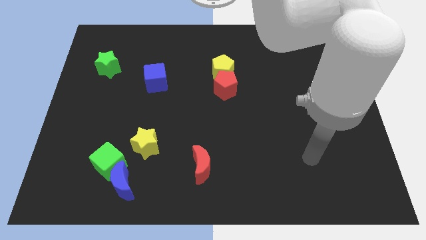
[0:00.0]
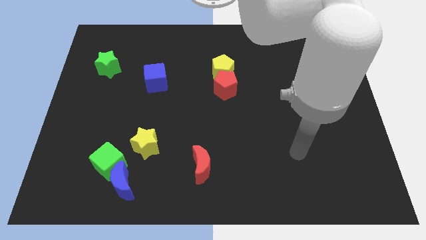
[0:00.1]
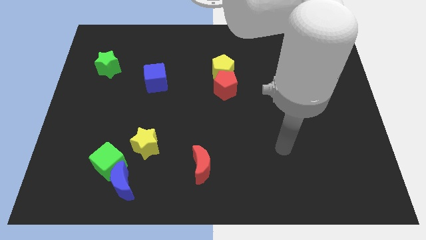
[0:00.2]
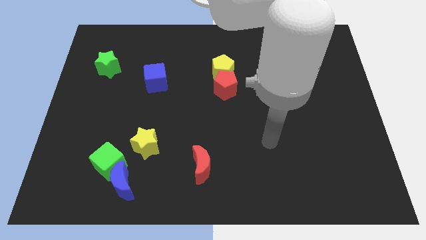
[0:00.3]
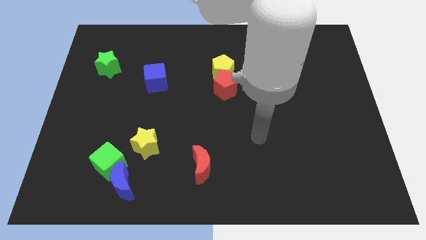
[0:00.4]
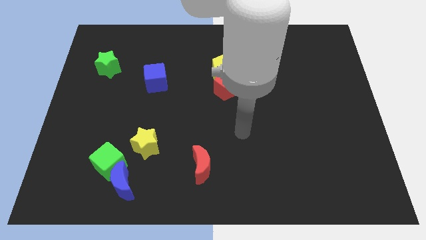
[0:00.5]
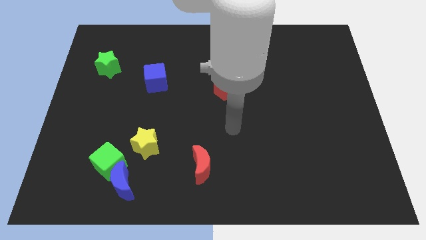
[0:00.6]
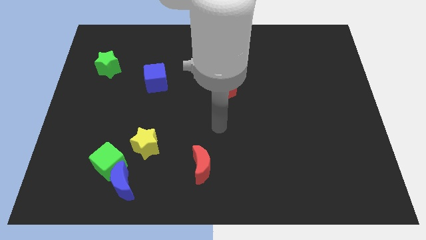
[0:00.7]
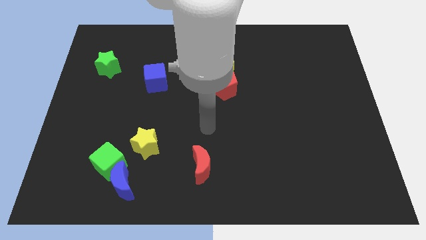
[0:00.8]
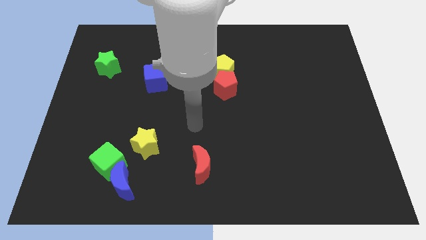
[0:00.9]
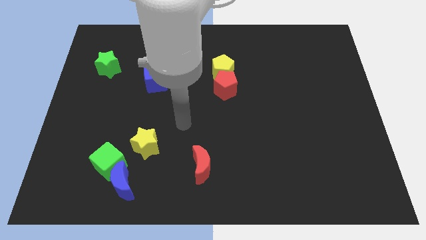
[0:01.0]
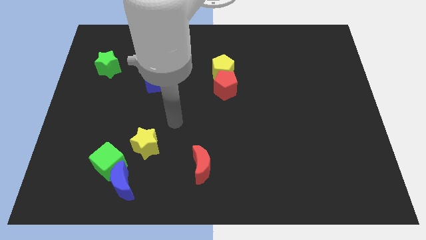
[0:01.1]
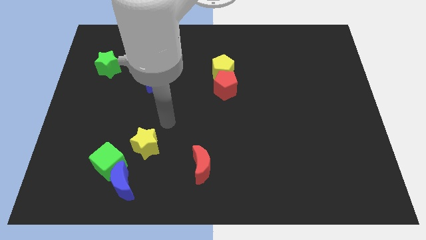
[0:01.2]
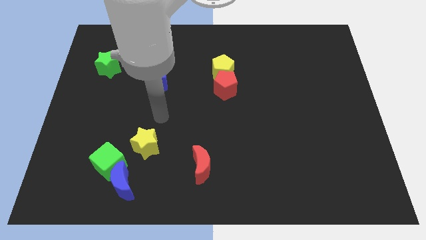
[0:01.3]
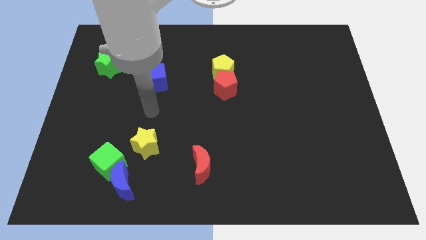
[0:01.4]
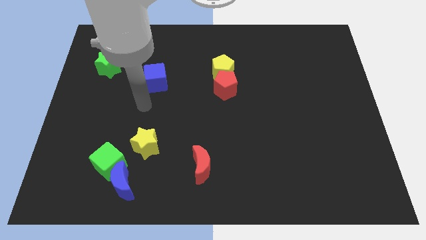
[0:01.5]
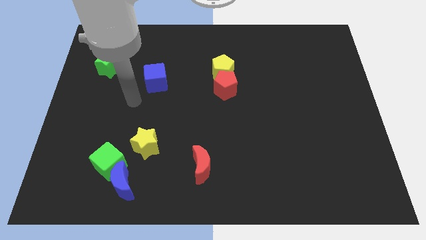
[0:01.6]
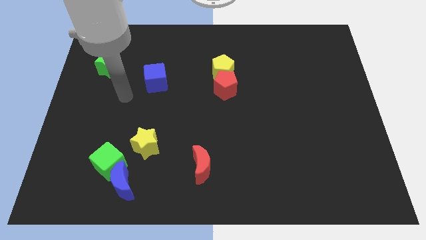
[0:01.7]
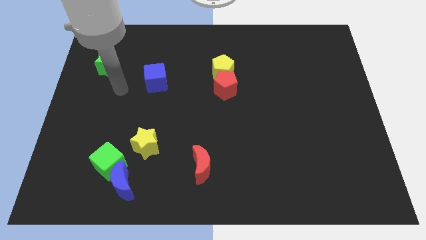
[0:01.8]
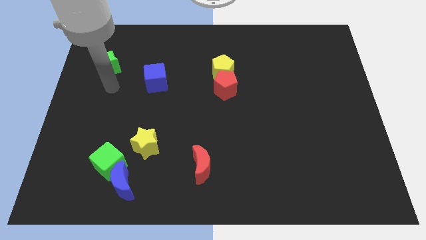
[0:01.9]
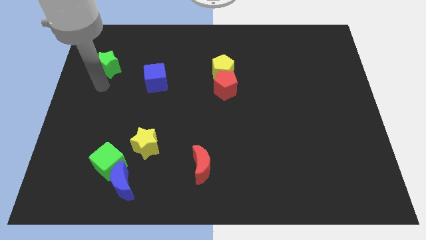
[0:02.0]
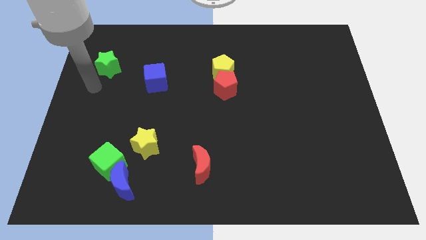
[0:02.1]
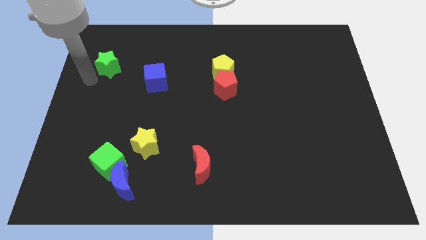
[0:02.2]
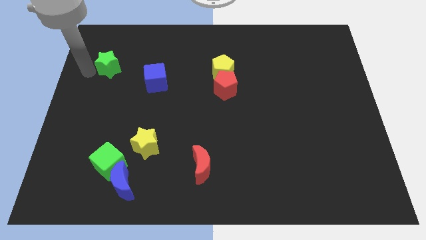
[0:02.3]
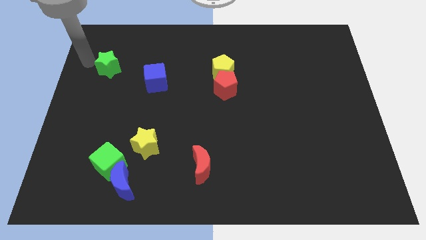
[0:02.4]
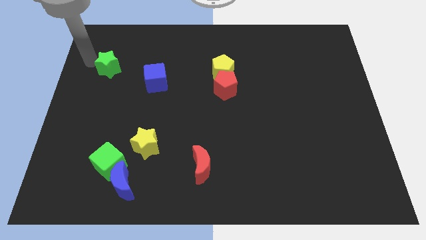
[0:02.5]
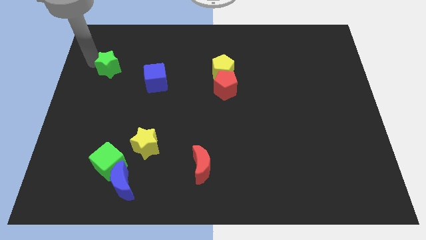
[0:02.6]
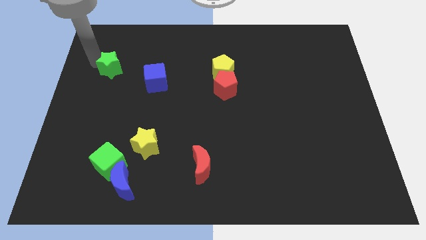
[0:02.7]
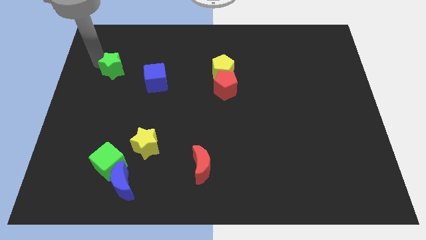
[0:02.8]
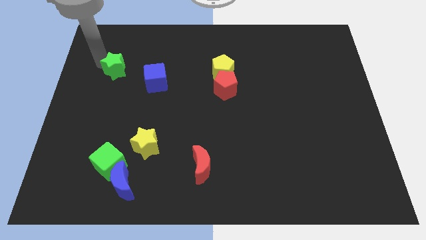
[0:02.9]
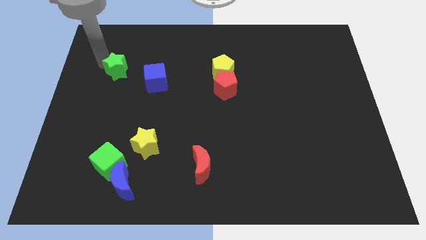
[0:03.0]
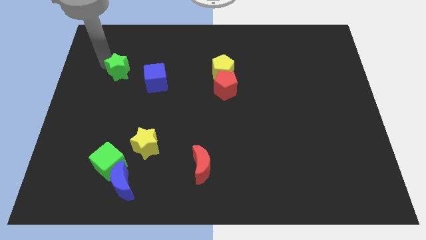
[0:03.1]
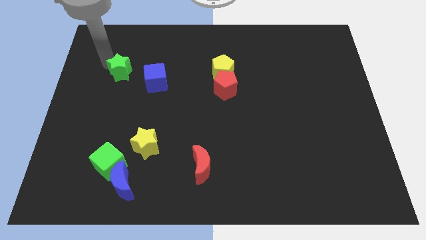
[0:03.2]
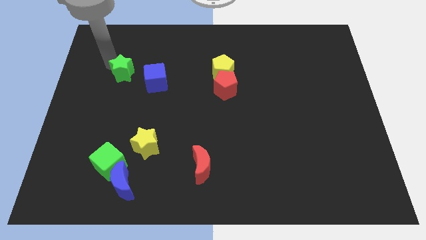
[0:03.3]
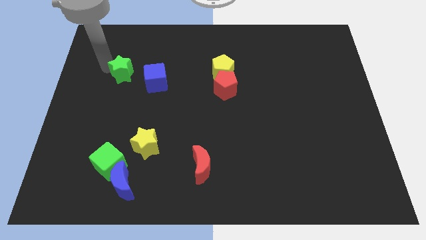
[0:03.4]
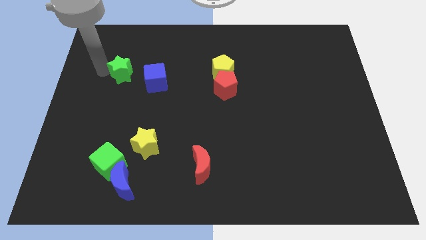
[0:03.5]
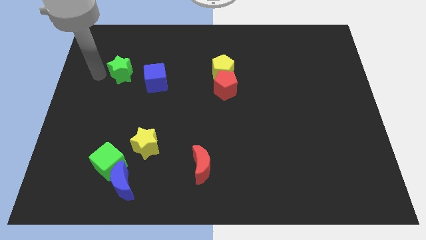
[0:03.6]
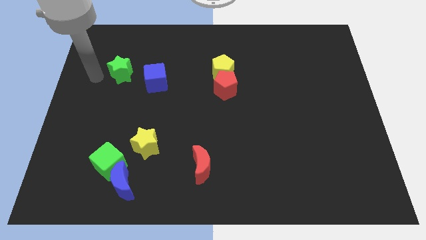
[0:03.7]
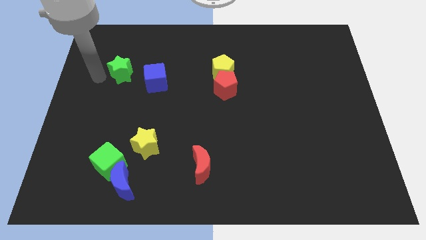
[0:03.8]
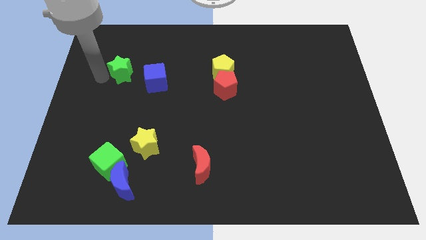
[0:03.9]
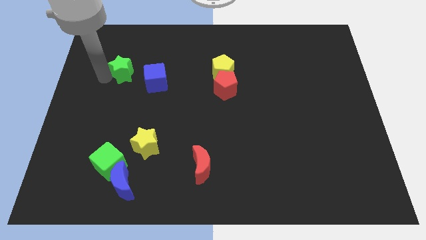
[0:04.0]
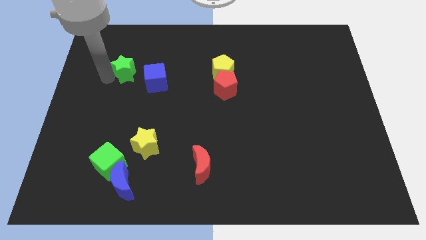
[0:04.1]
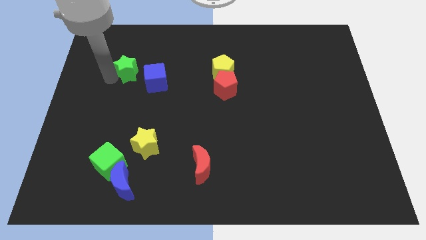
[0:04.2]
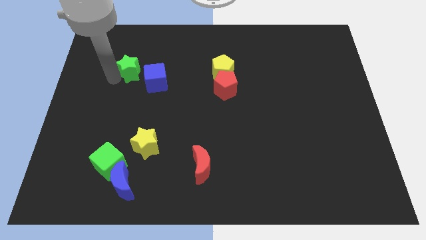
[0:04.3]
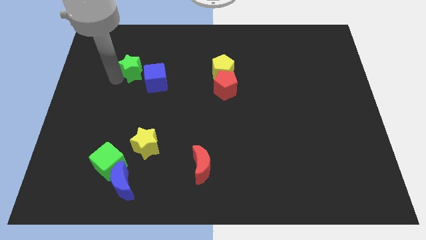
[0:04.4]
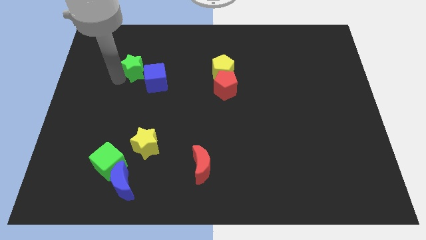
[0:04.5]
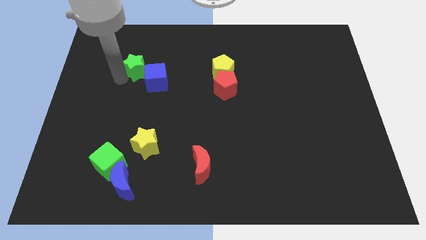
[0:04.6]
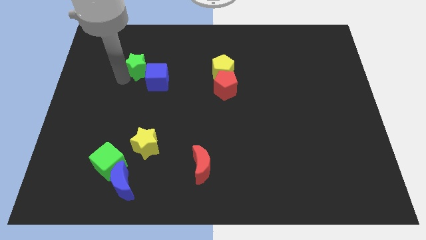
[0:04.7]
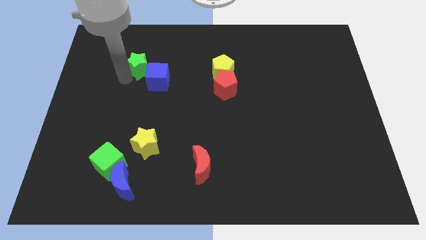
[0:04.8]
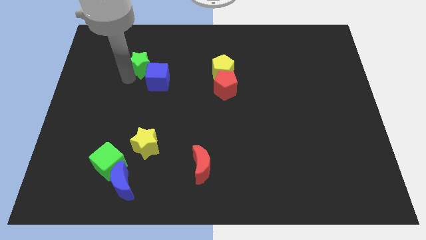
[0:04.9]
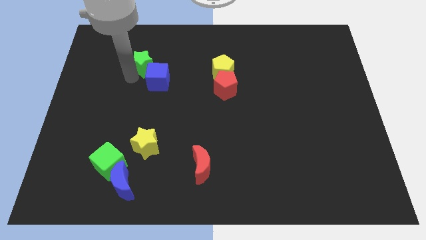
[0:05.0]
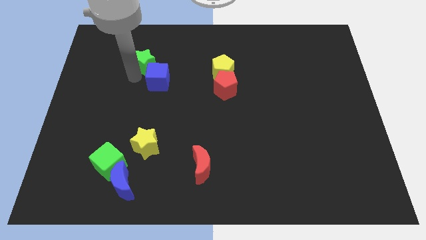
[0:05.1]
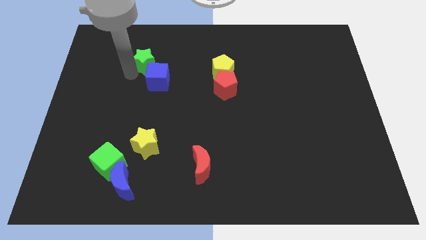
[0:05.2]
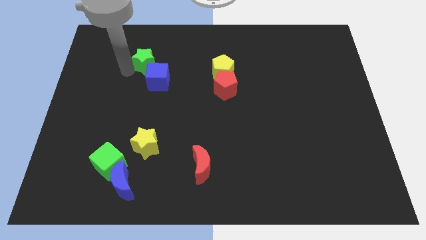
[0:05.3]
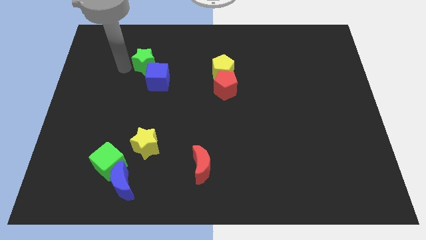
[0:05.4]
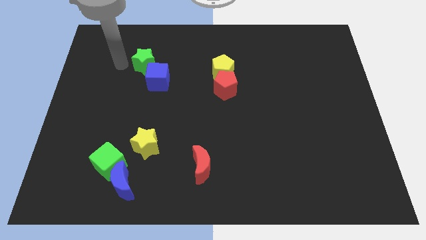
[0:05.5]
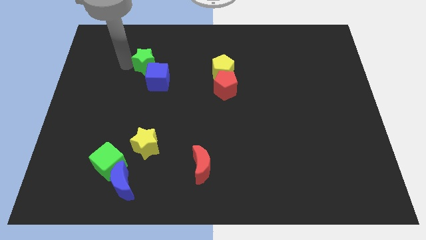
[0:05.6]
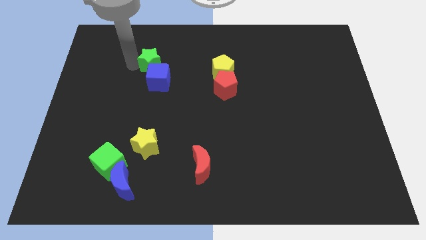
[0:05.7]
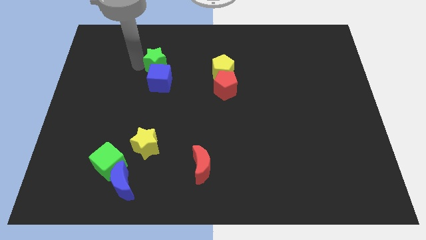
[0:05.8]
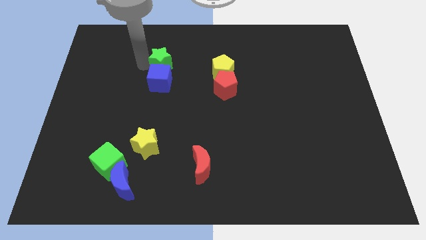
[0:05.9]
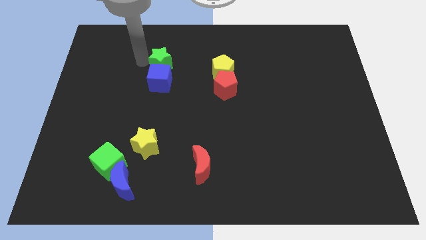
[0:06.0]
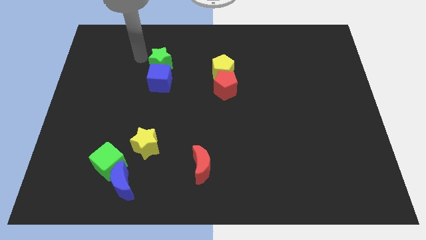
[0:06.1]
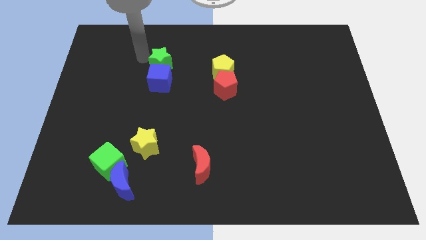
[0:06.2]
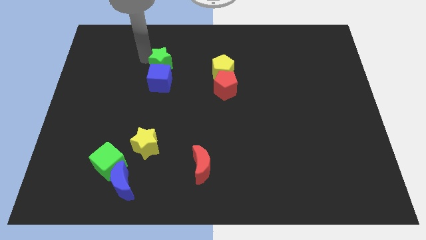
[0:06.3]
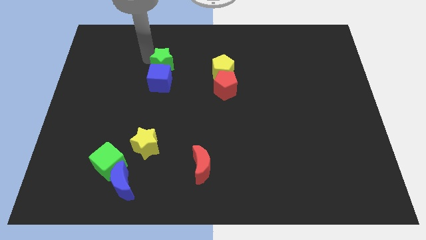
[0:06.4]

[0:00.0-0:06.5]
put the green star just left of the yellow pentagon
